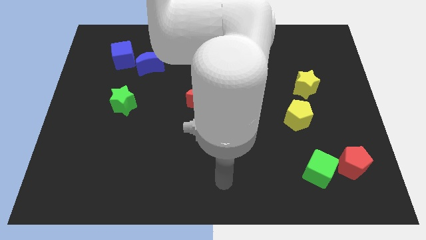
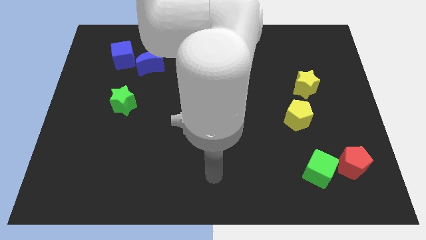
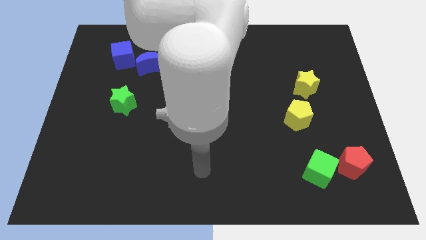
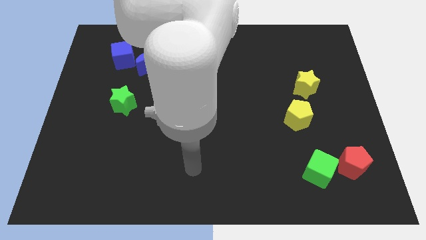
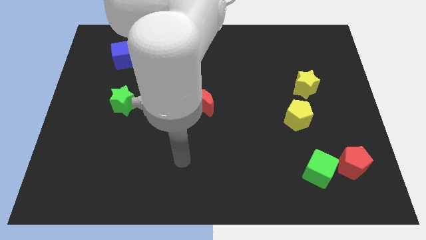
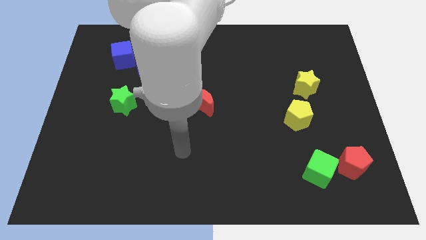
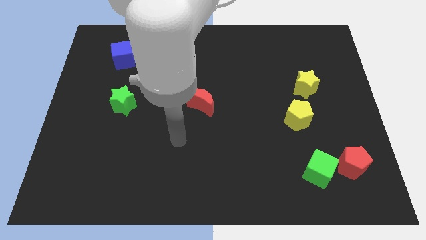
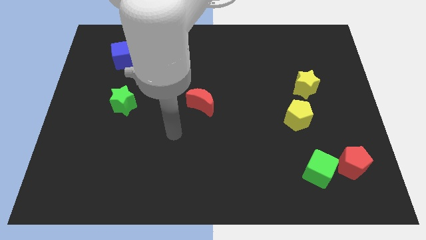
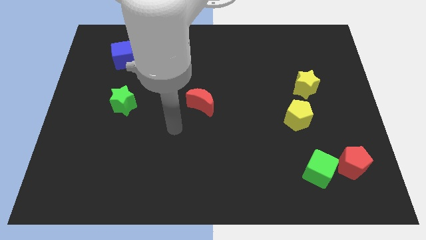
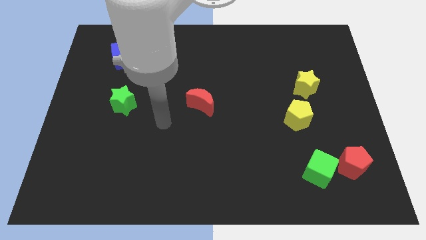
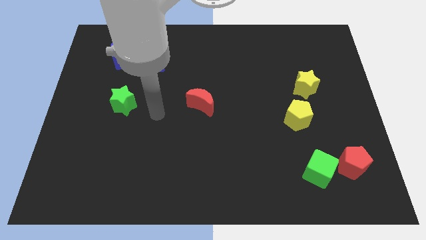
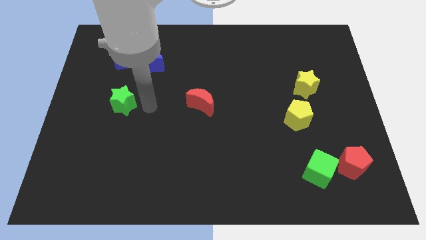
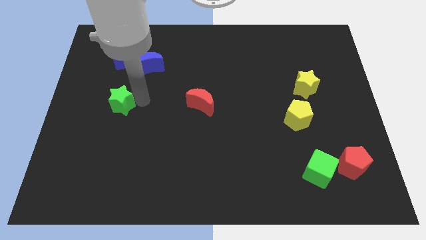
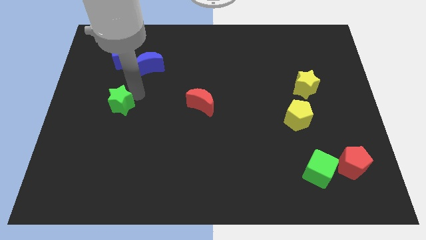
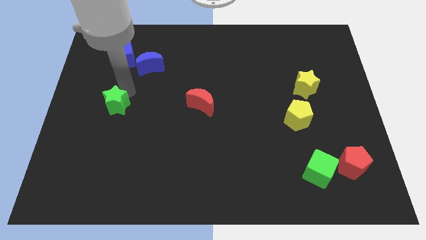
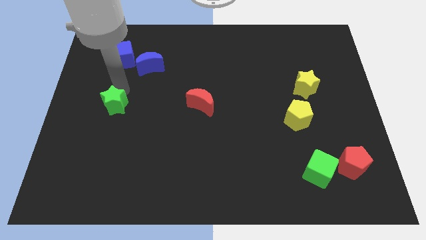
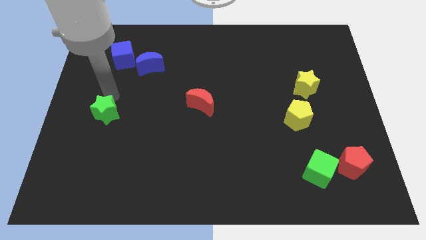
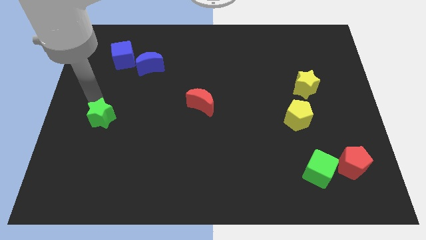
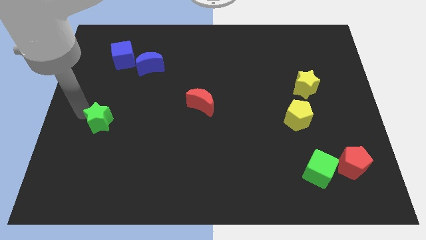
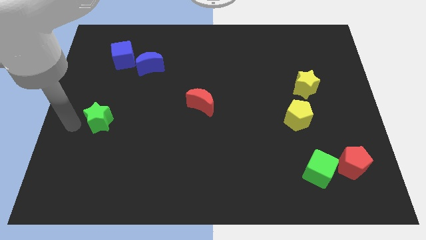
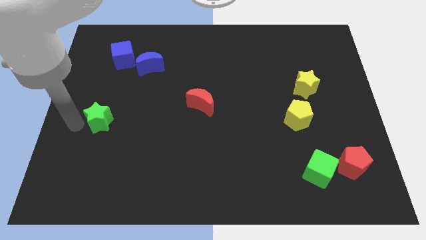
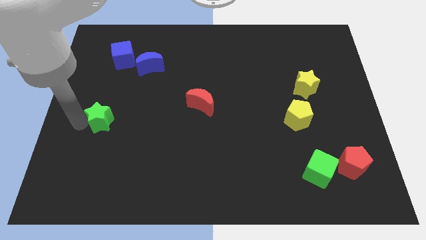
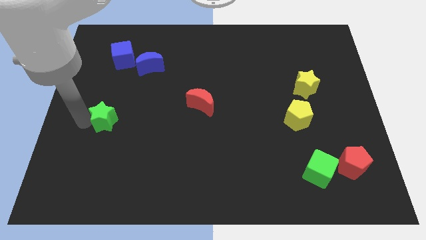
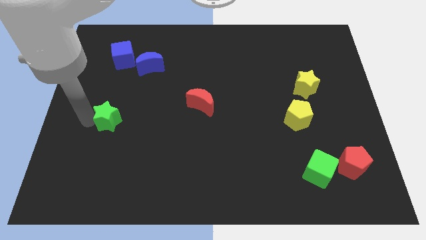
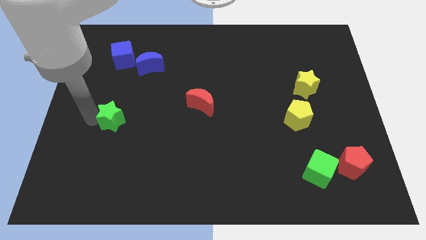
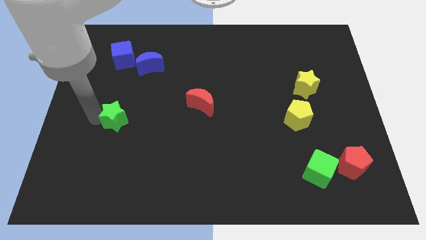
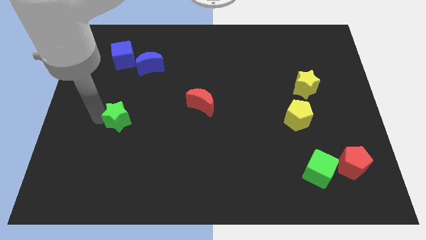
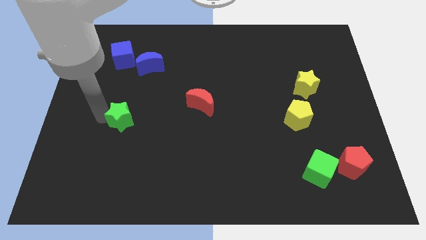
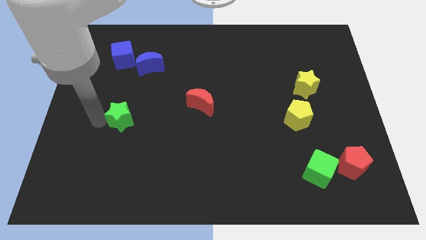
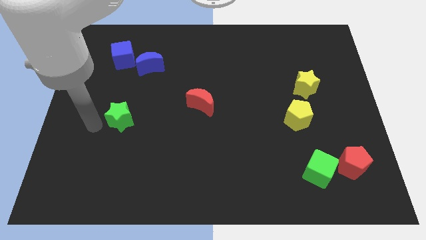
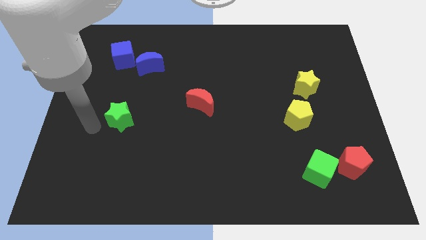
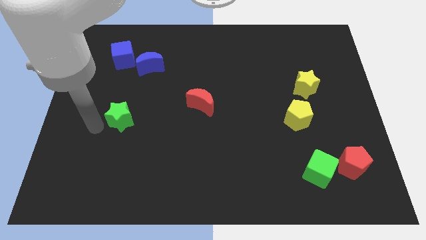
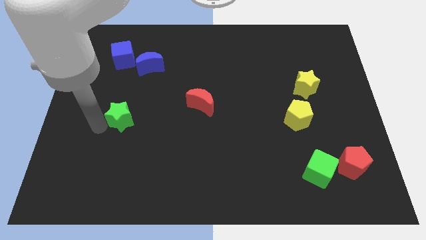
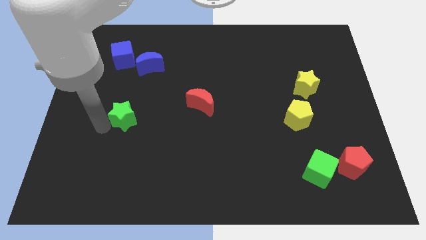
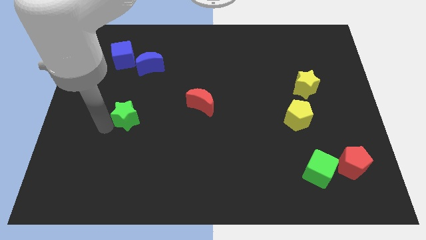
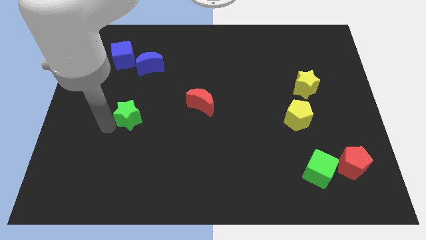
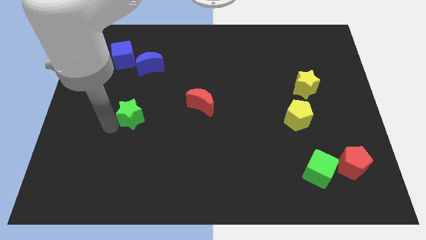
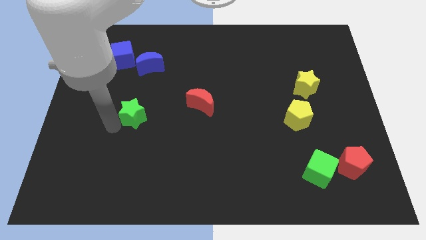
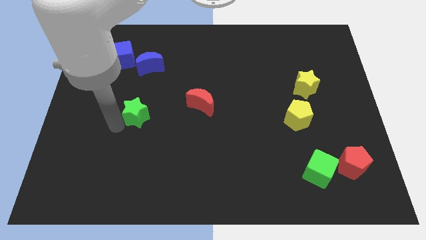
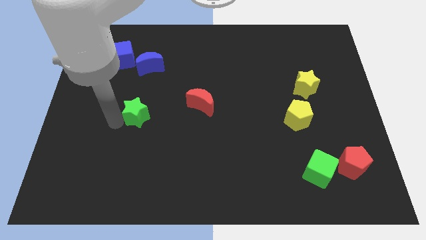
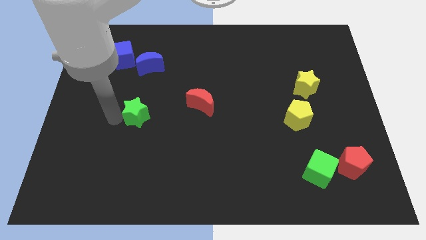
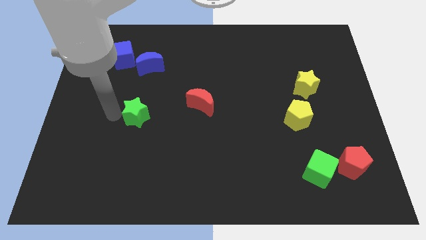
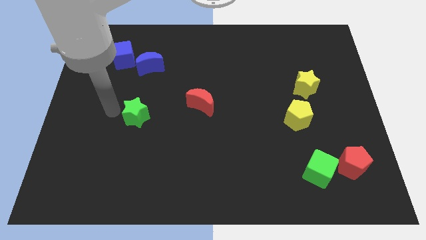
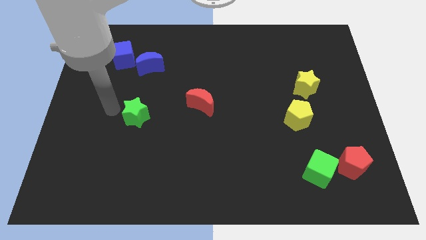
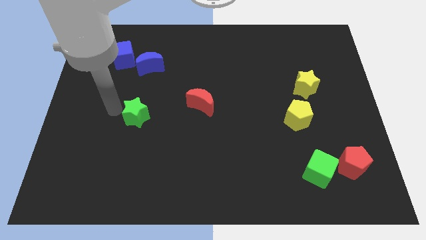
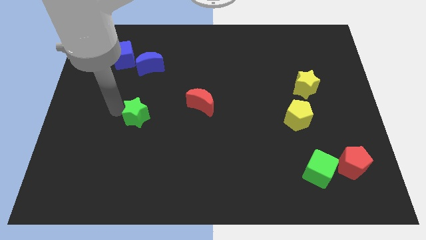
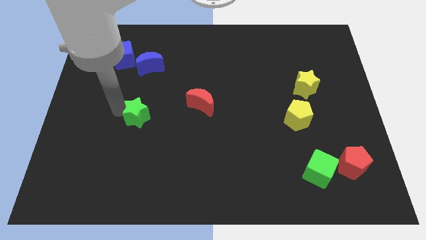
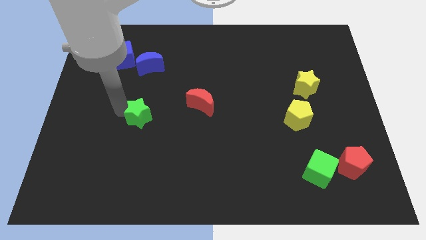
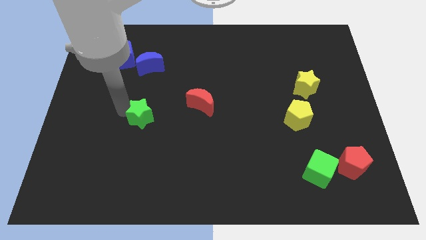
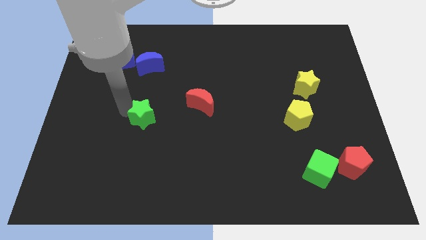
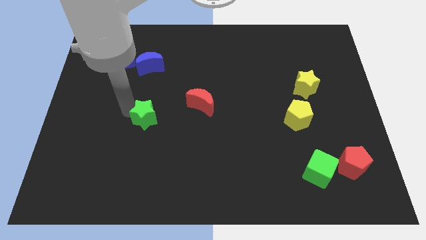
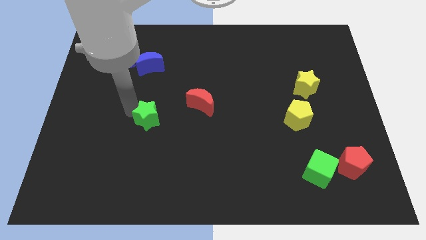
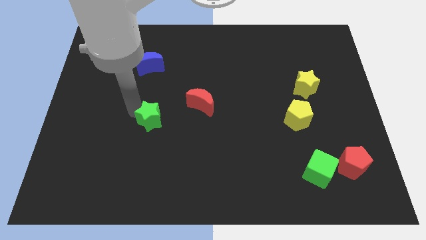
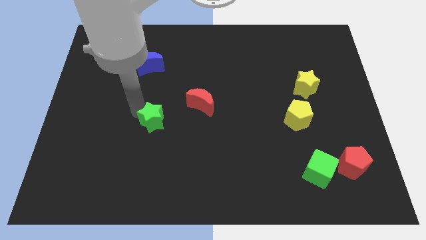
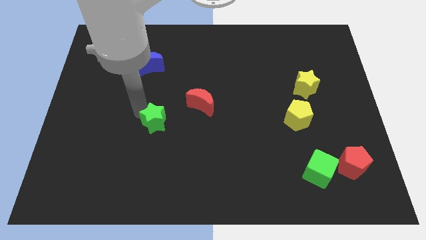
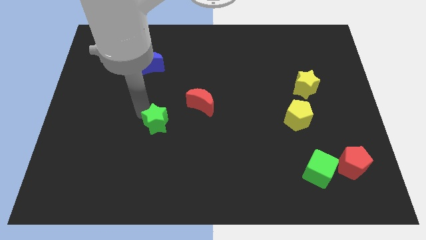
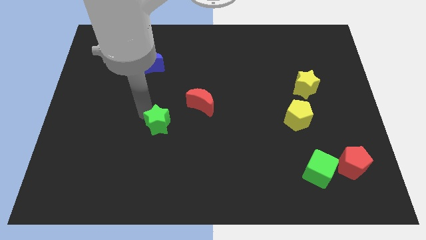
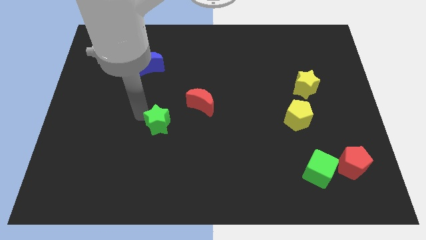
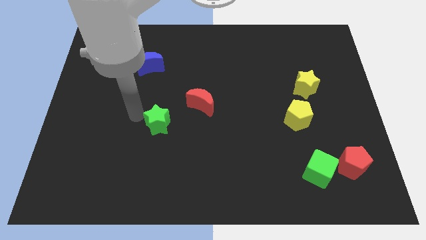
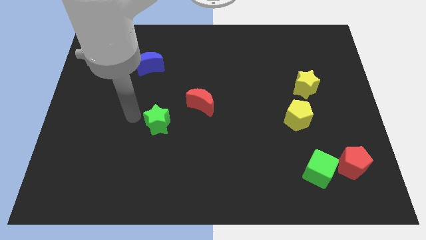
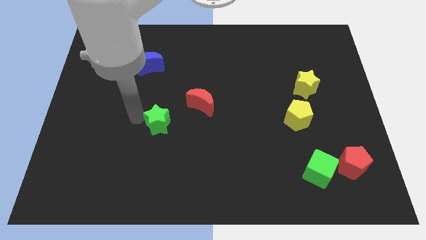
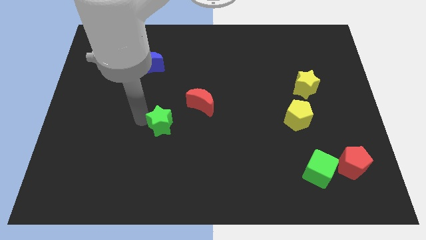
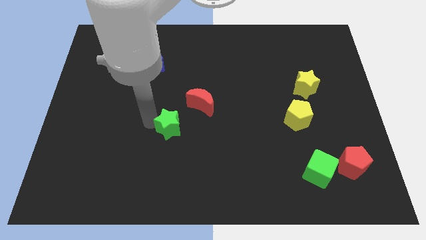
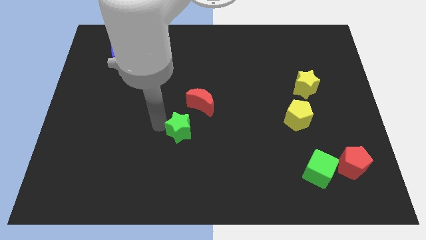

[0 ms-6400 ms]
slide the green star below the red moon
